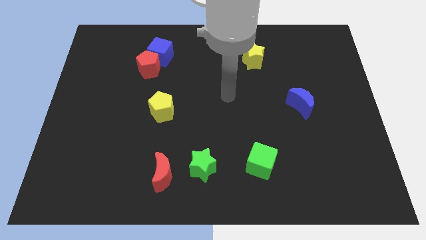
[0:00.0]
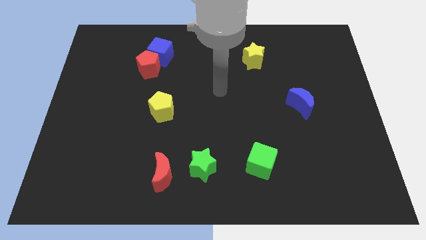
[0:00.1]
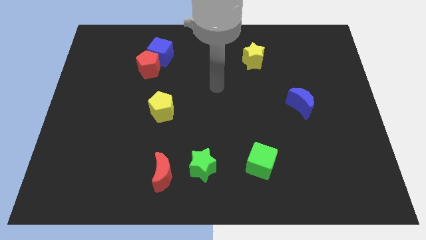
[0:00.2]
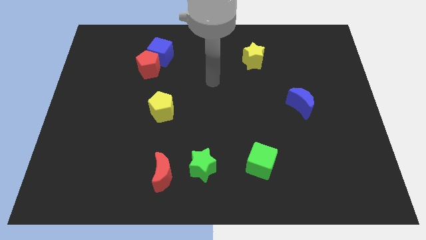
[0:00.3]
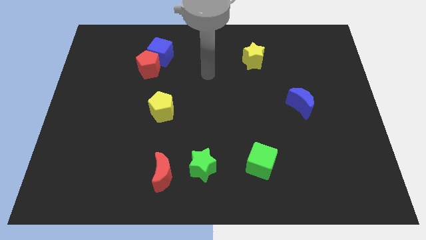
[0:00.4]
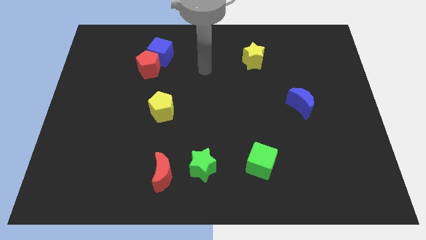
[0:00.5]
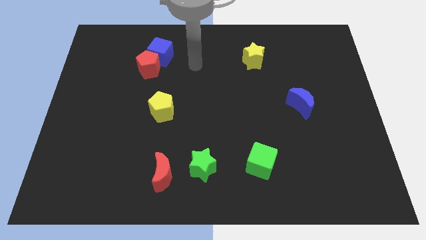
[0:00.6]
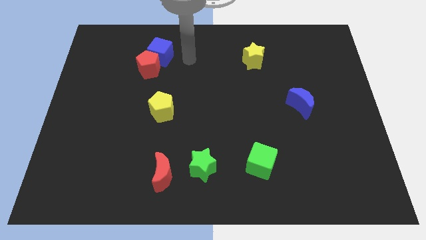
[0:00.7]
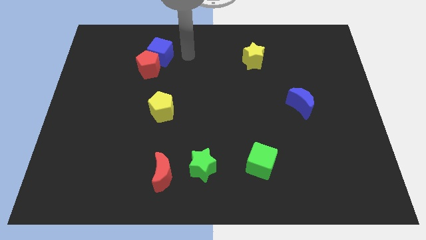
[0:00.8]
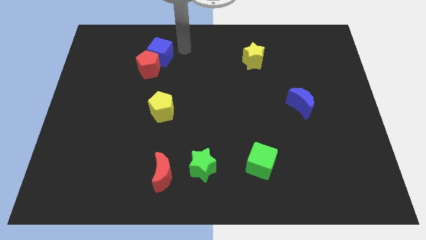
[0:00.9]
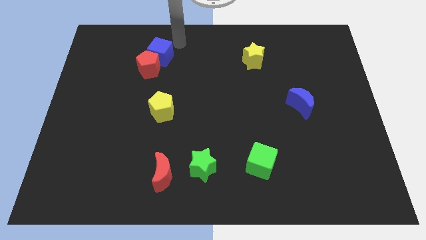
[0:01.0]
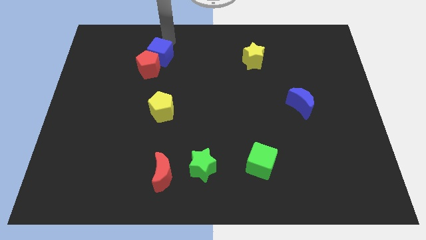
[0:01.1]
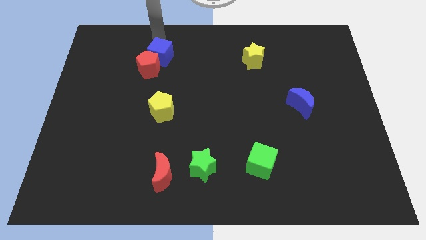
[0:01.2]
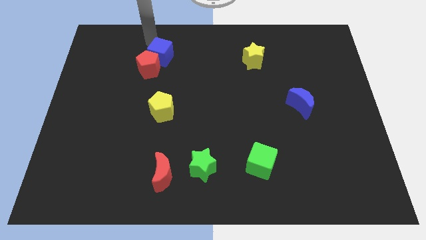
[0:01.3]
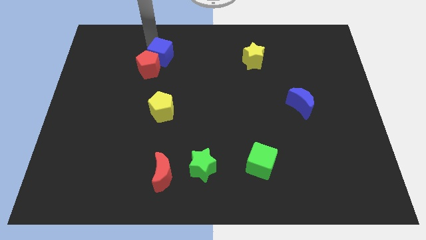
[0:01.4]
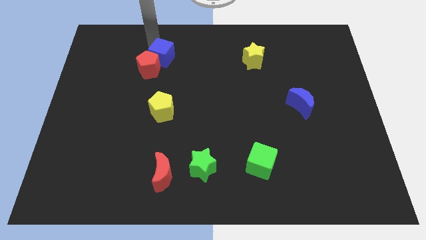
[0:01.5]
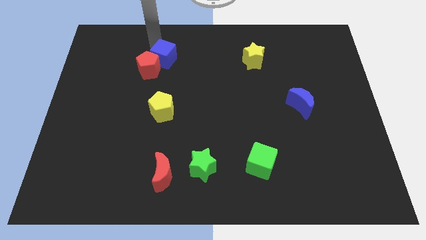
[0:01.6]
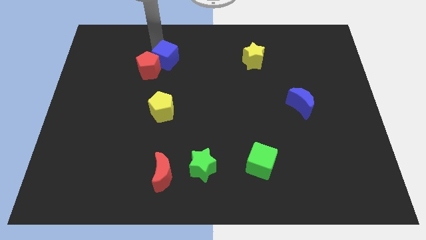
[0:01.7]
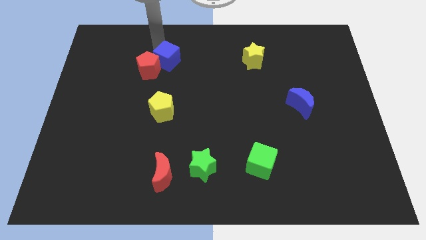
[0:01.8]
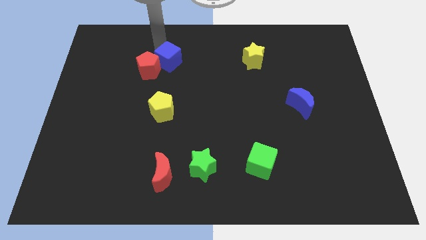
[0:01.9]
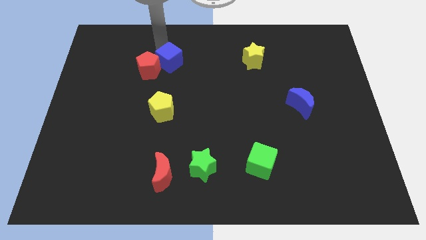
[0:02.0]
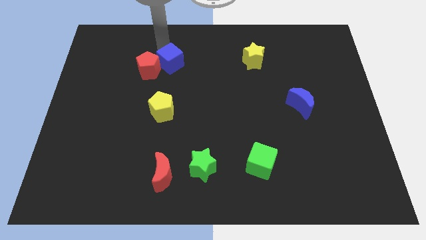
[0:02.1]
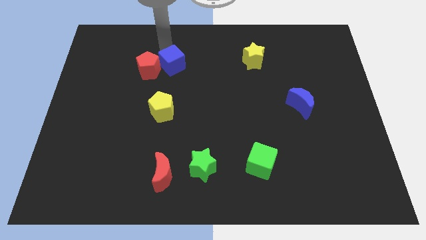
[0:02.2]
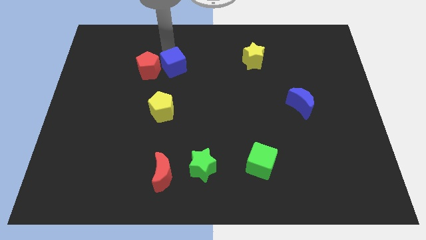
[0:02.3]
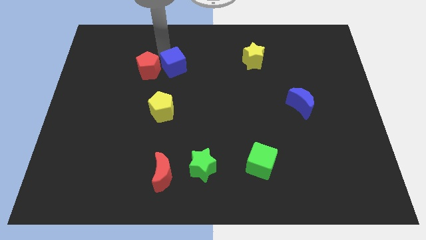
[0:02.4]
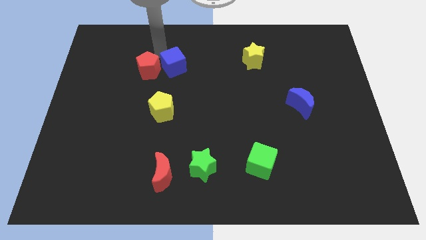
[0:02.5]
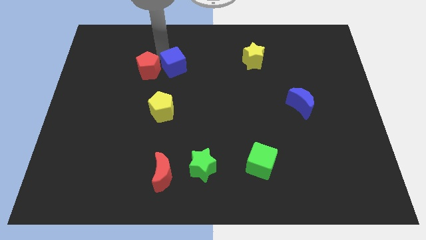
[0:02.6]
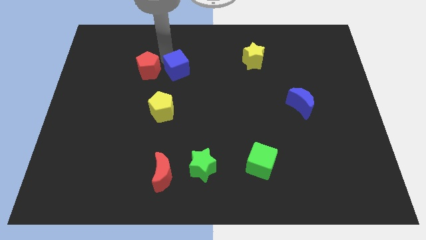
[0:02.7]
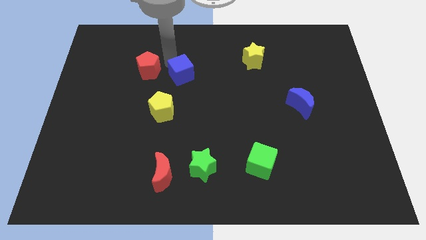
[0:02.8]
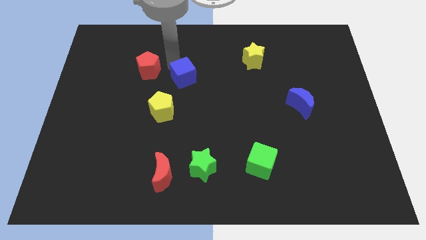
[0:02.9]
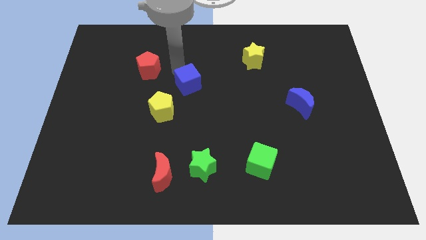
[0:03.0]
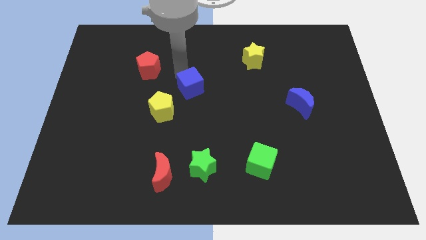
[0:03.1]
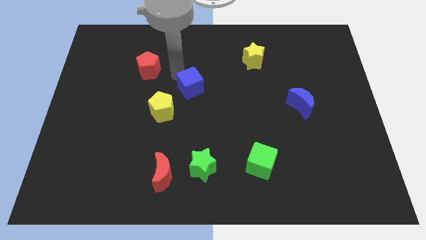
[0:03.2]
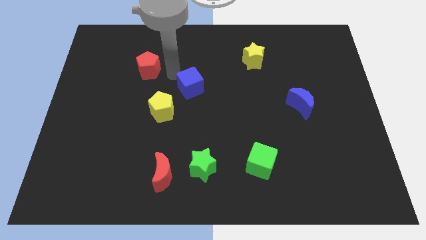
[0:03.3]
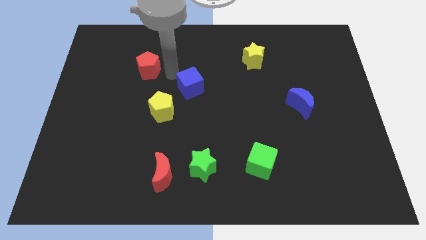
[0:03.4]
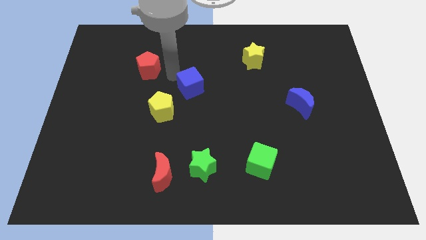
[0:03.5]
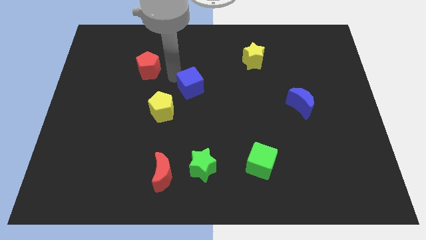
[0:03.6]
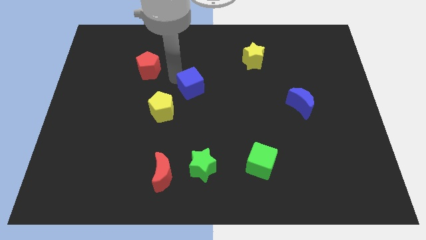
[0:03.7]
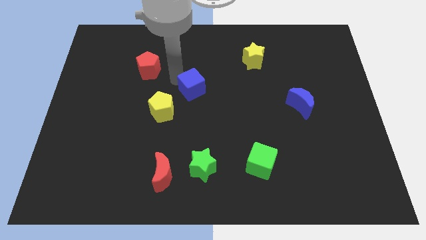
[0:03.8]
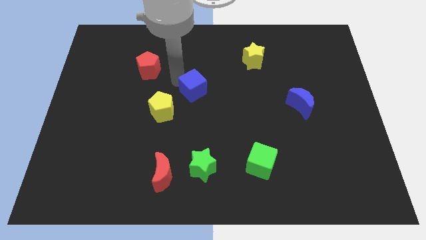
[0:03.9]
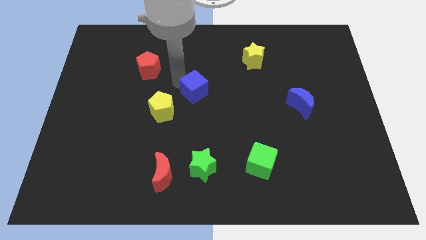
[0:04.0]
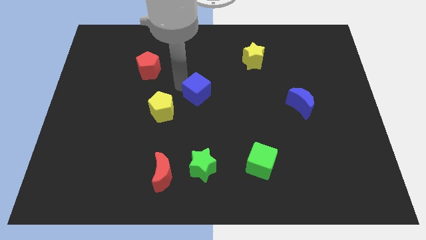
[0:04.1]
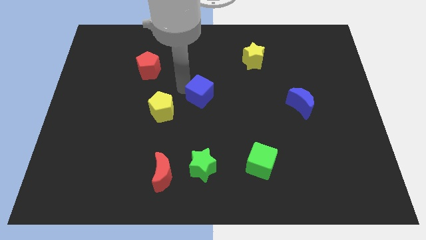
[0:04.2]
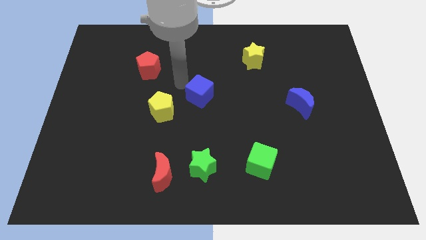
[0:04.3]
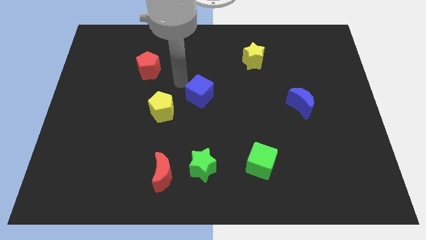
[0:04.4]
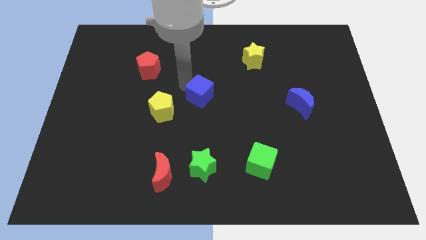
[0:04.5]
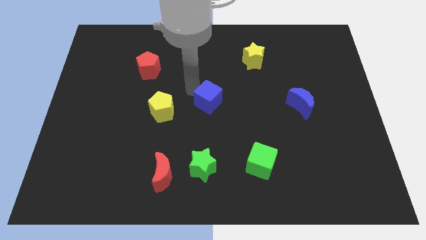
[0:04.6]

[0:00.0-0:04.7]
move the blue cube down and to the right

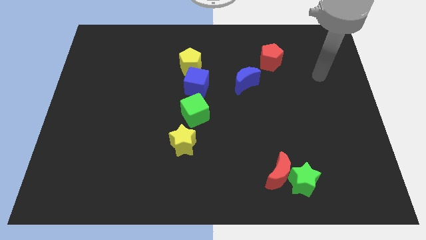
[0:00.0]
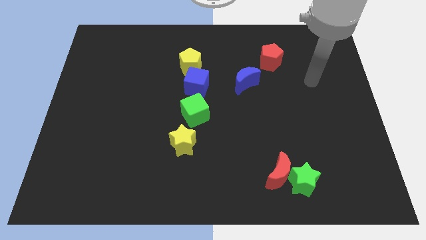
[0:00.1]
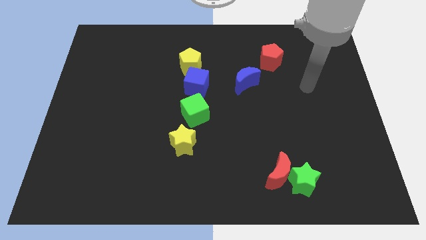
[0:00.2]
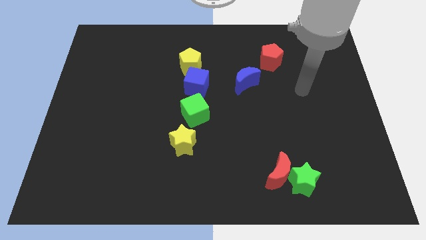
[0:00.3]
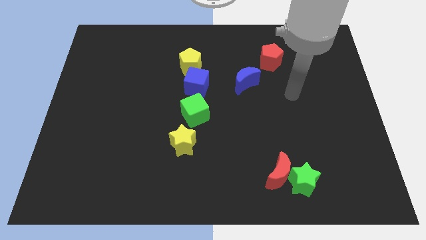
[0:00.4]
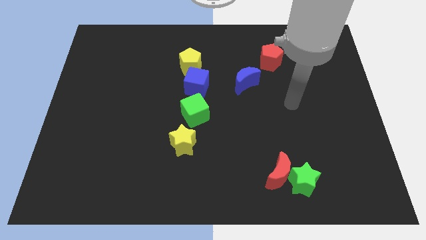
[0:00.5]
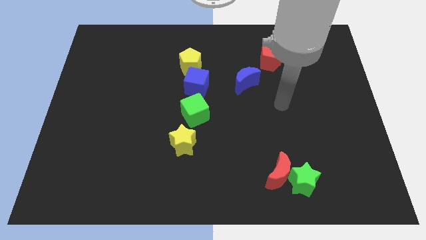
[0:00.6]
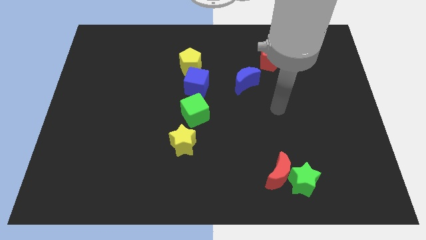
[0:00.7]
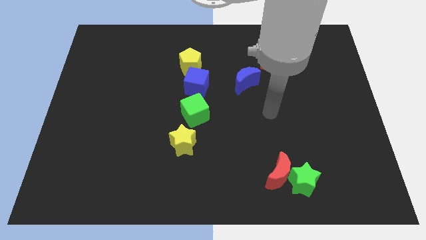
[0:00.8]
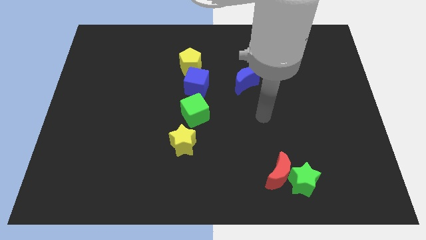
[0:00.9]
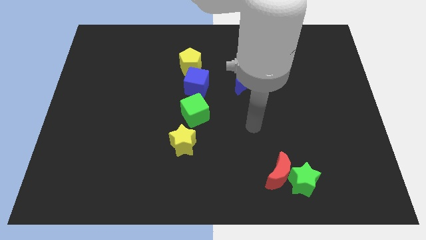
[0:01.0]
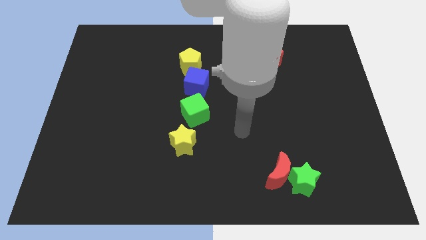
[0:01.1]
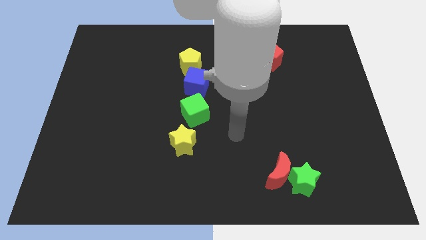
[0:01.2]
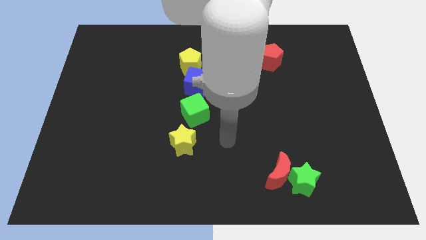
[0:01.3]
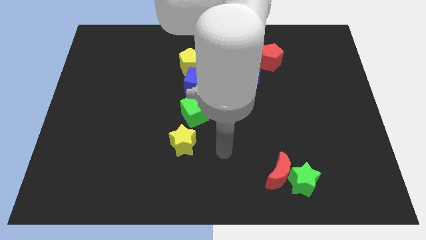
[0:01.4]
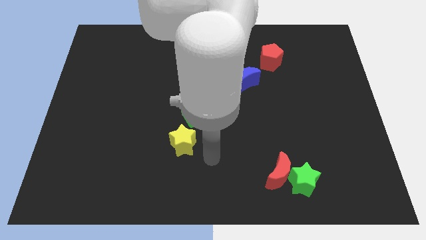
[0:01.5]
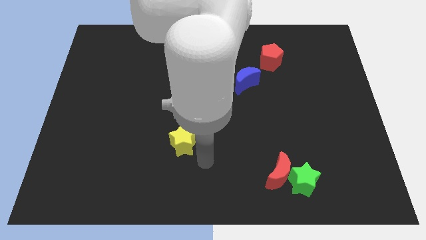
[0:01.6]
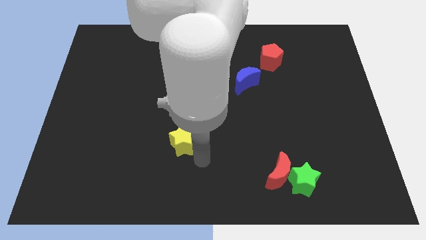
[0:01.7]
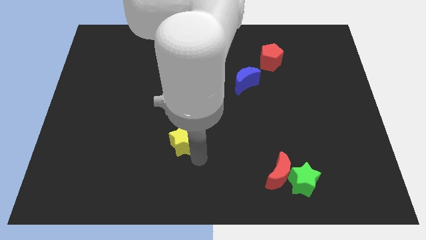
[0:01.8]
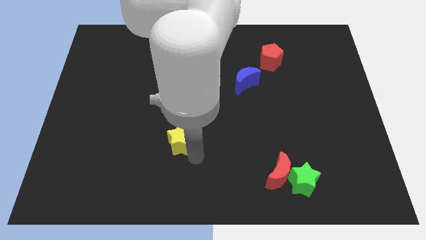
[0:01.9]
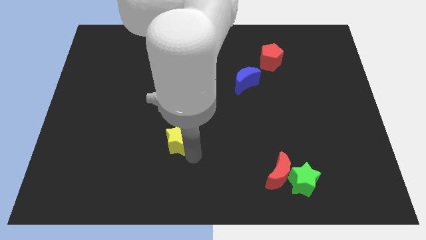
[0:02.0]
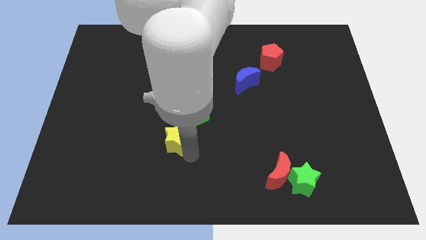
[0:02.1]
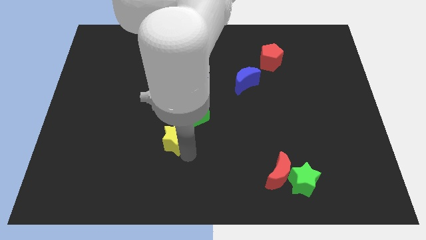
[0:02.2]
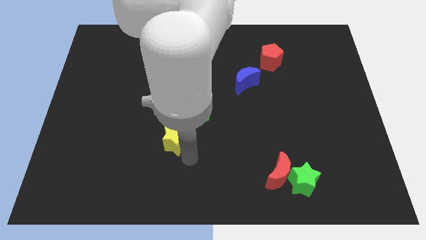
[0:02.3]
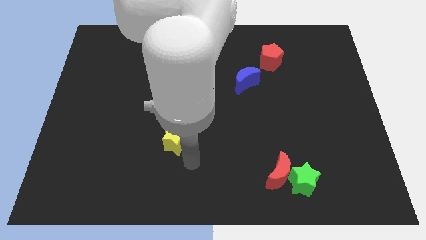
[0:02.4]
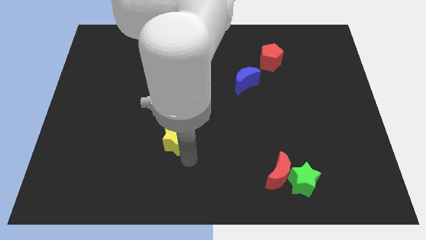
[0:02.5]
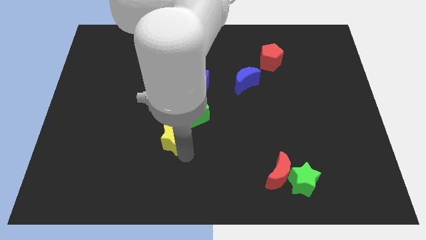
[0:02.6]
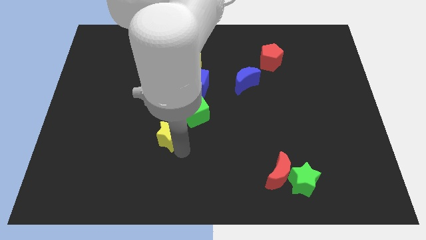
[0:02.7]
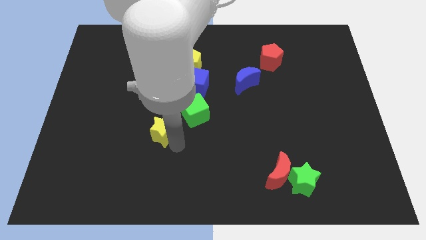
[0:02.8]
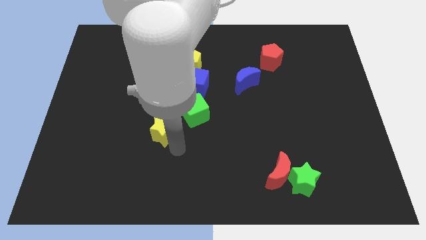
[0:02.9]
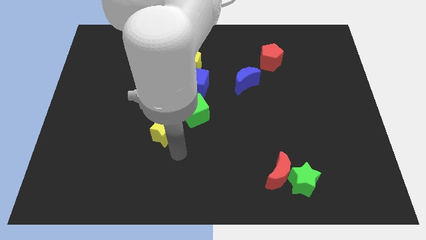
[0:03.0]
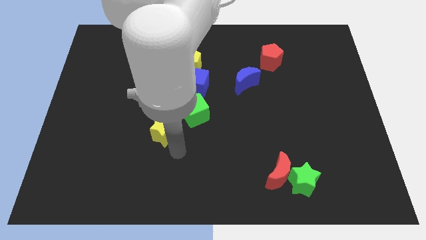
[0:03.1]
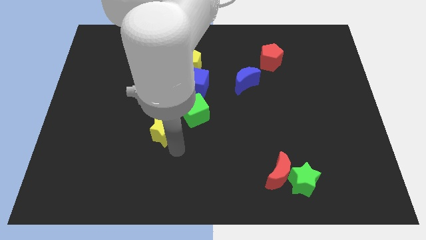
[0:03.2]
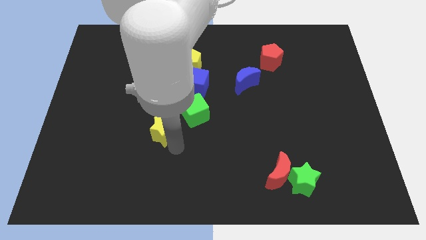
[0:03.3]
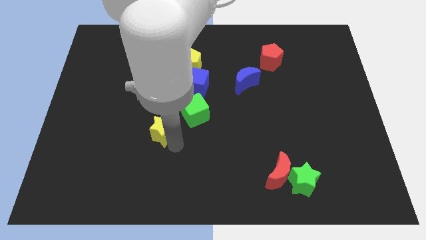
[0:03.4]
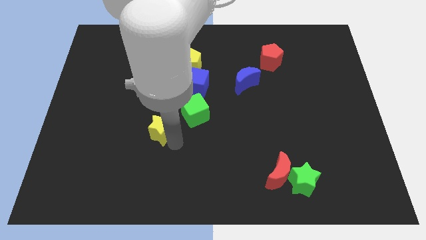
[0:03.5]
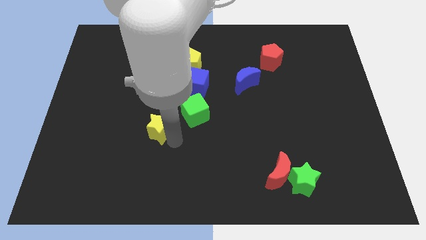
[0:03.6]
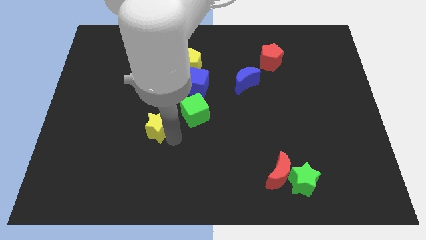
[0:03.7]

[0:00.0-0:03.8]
slide the yellow star a little bit upwards and left diagonally
